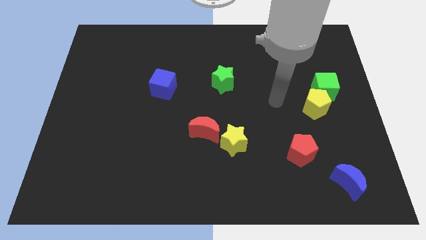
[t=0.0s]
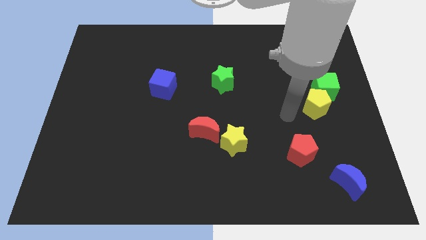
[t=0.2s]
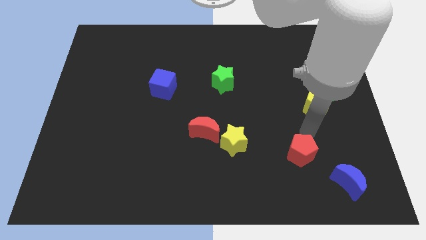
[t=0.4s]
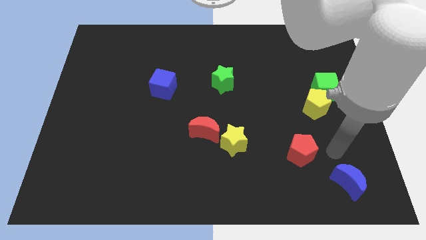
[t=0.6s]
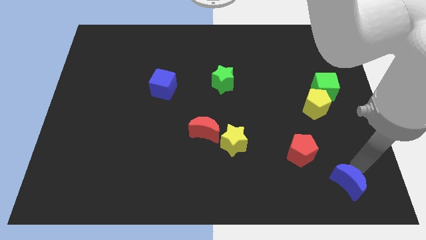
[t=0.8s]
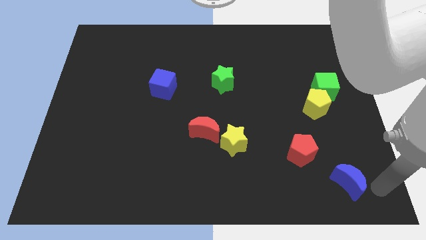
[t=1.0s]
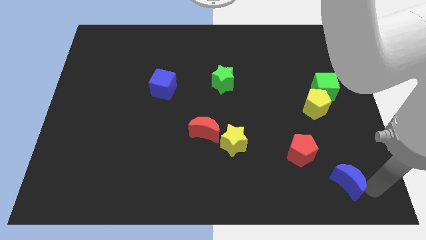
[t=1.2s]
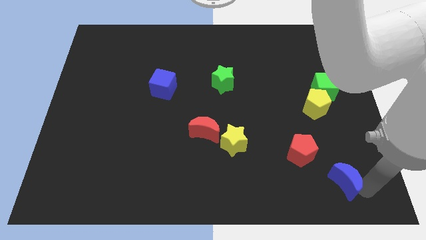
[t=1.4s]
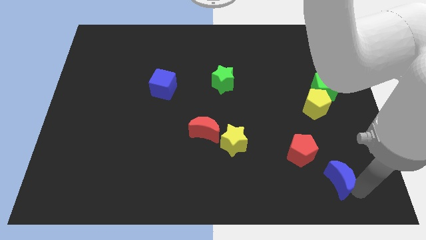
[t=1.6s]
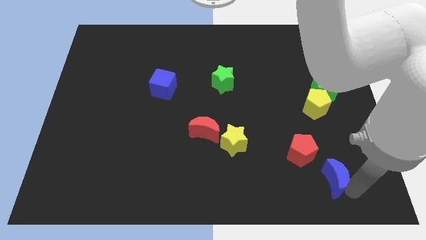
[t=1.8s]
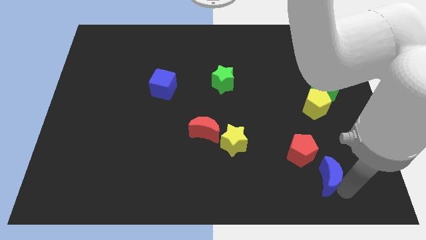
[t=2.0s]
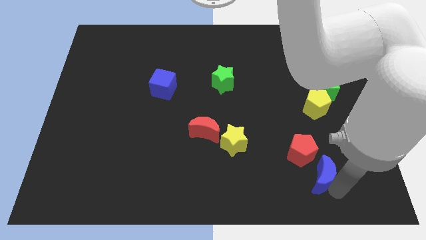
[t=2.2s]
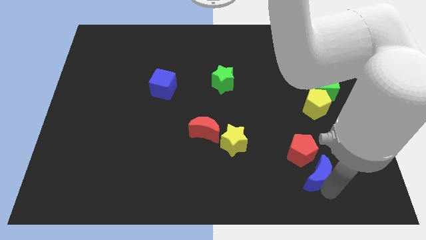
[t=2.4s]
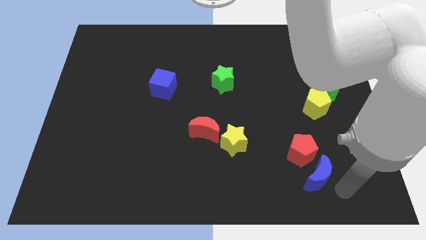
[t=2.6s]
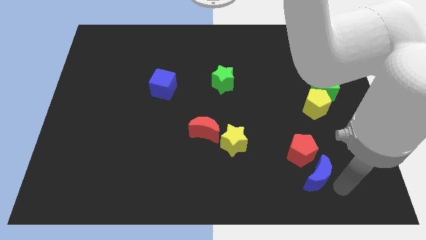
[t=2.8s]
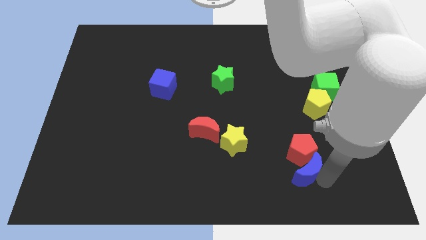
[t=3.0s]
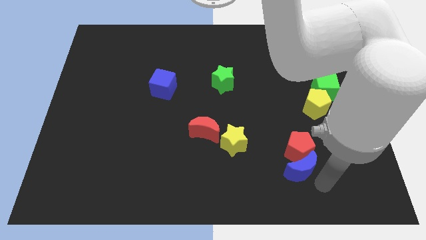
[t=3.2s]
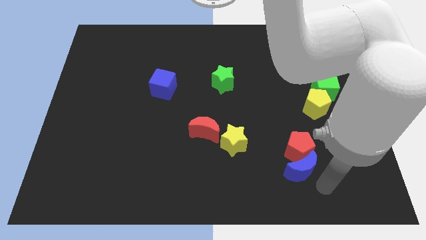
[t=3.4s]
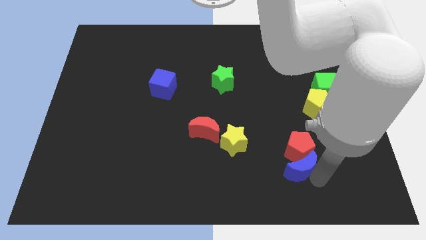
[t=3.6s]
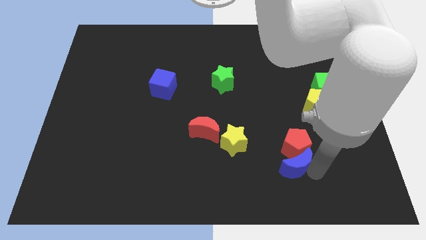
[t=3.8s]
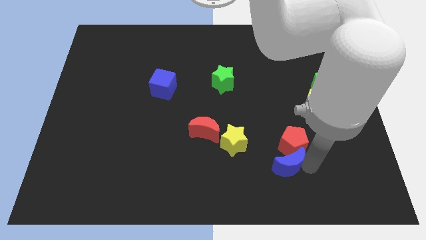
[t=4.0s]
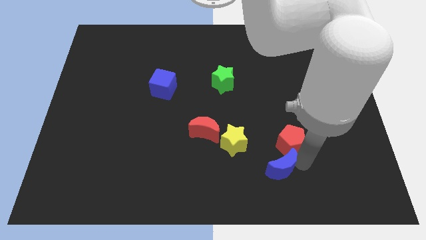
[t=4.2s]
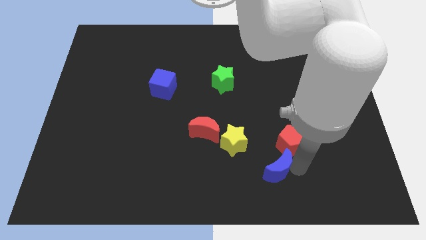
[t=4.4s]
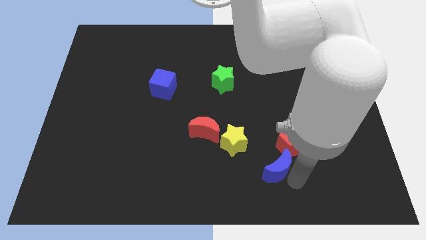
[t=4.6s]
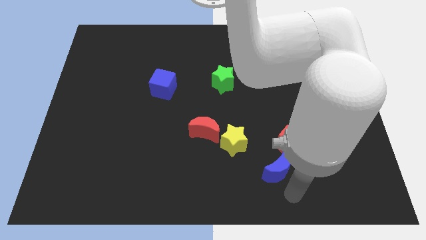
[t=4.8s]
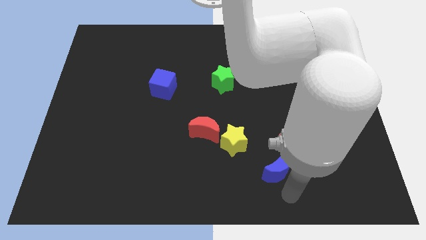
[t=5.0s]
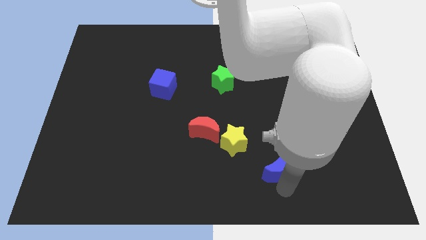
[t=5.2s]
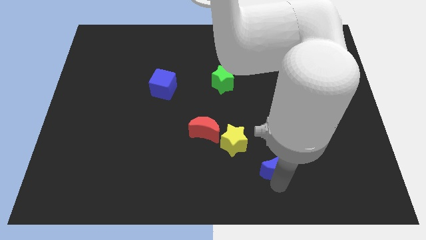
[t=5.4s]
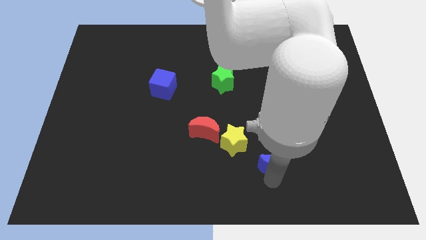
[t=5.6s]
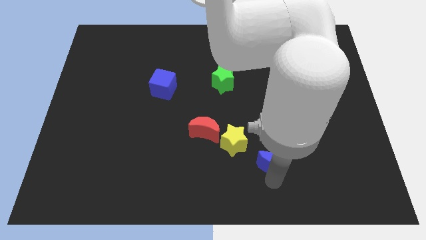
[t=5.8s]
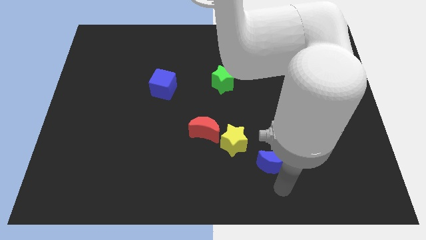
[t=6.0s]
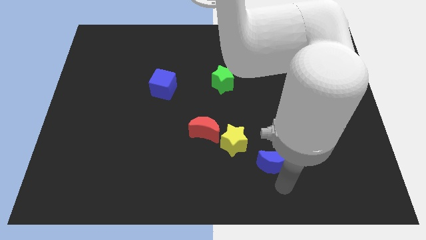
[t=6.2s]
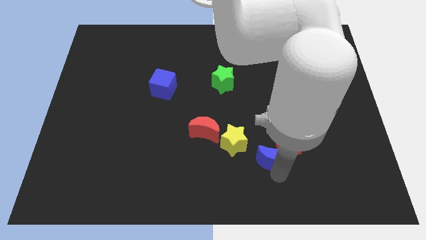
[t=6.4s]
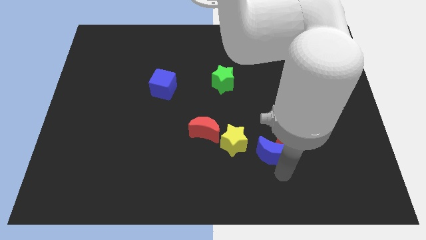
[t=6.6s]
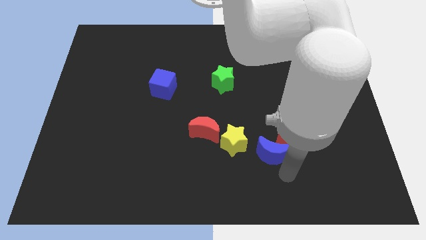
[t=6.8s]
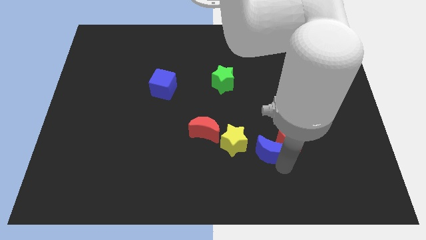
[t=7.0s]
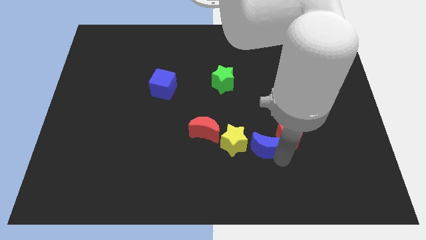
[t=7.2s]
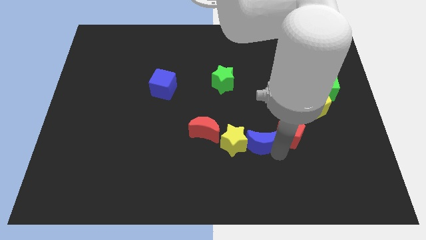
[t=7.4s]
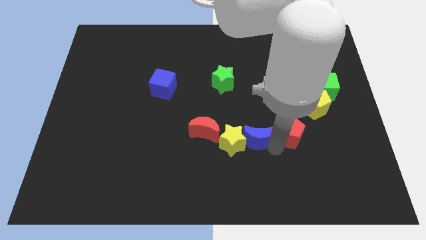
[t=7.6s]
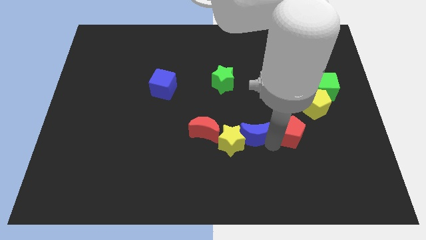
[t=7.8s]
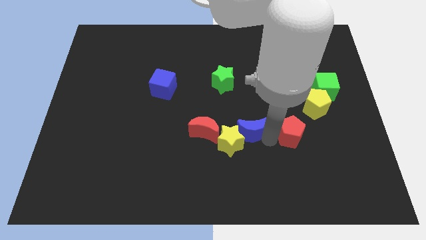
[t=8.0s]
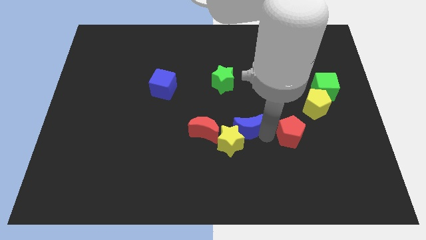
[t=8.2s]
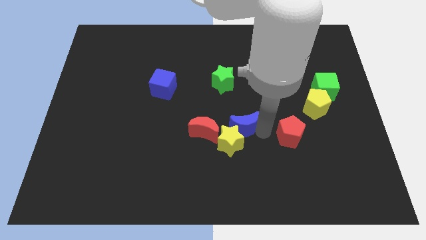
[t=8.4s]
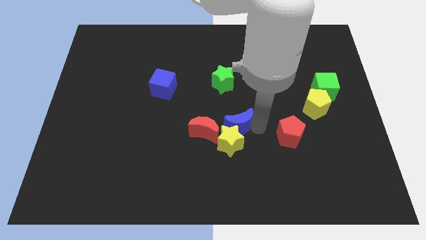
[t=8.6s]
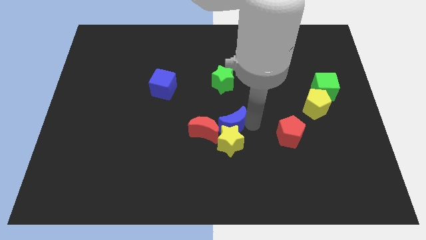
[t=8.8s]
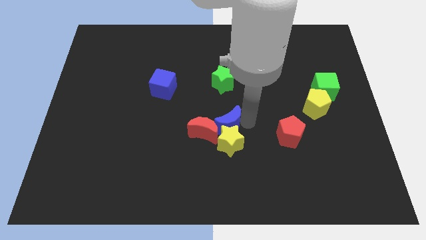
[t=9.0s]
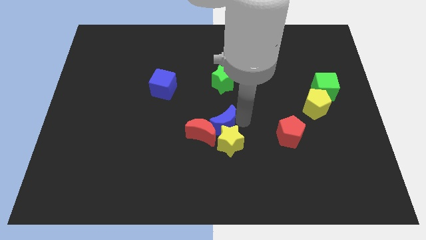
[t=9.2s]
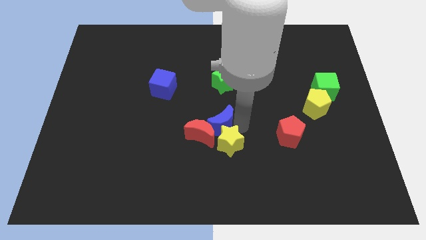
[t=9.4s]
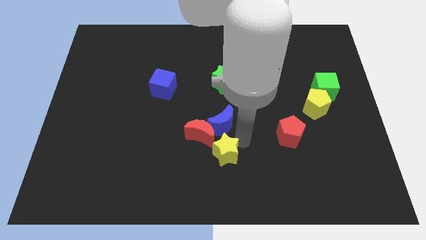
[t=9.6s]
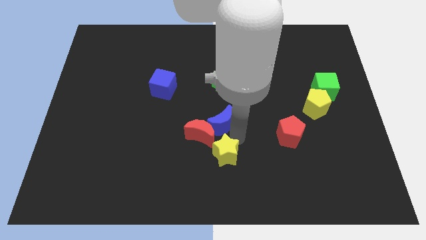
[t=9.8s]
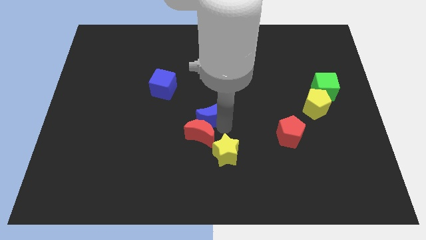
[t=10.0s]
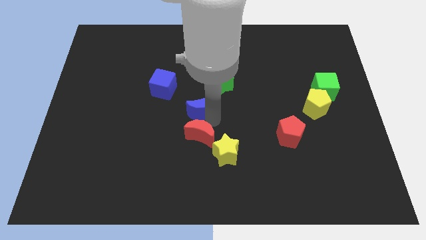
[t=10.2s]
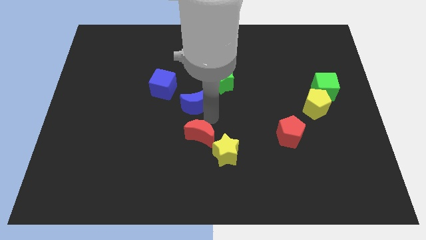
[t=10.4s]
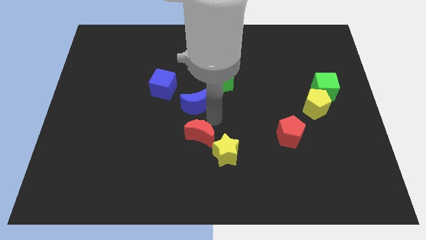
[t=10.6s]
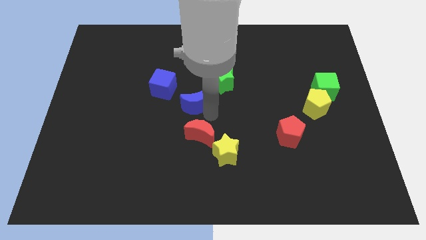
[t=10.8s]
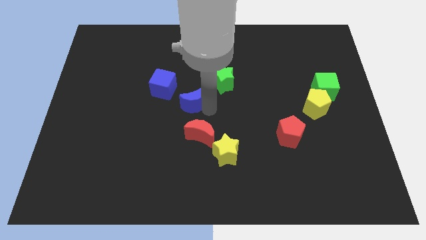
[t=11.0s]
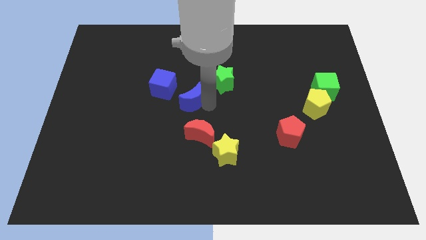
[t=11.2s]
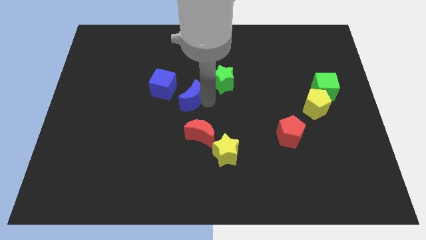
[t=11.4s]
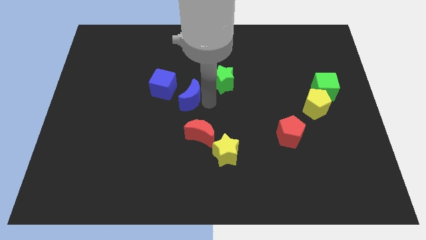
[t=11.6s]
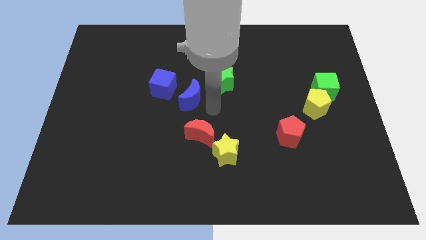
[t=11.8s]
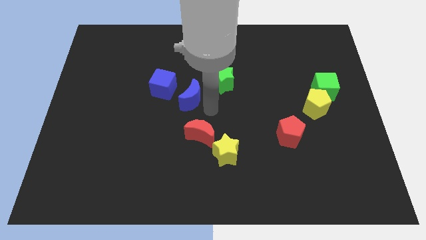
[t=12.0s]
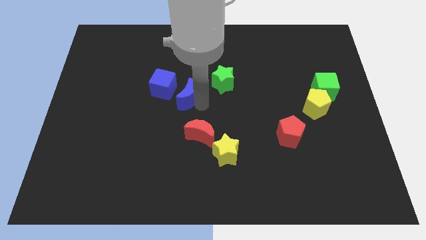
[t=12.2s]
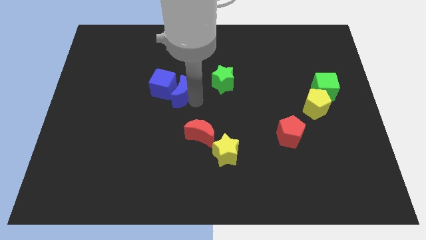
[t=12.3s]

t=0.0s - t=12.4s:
slide the blue moon next to the blue cube

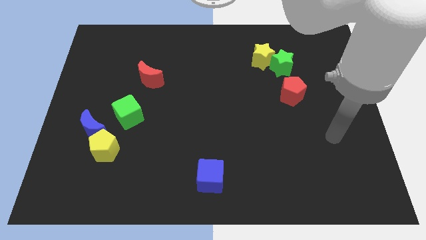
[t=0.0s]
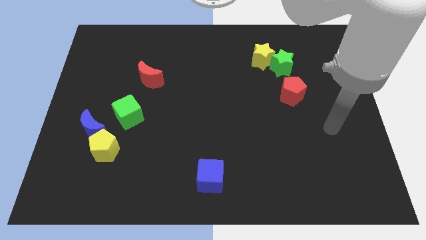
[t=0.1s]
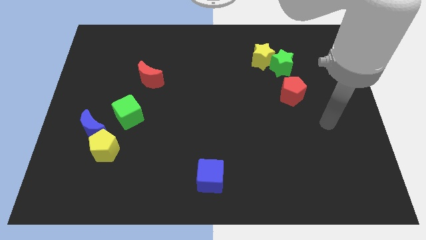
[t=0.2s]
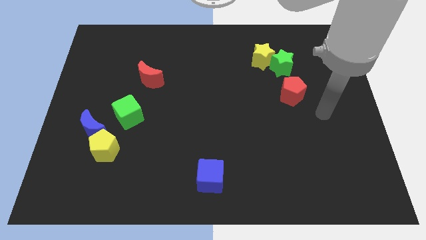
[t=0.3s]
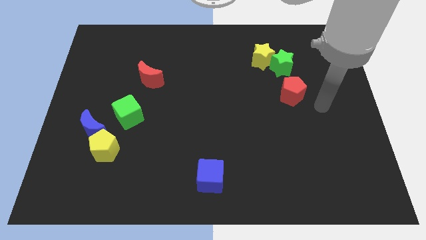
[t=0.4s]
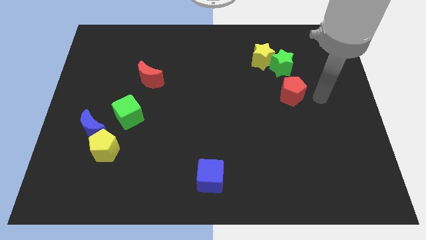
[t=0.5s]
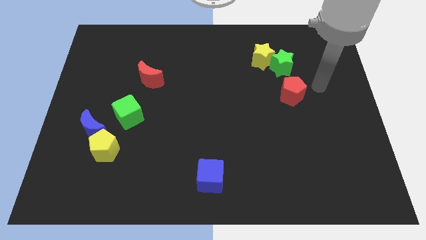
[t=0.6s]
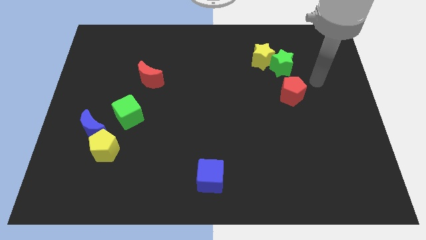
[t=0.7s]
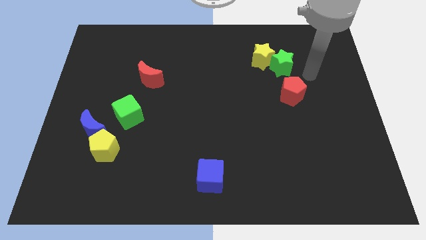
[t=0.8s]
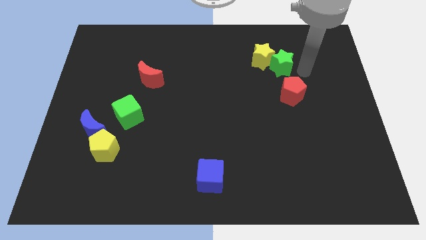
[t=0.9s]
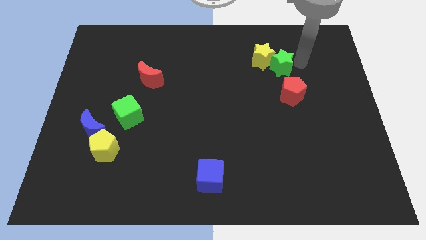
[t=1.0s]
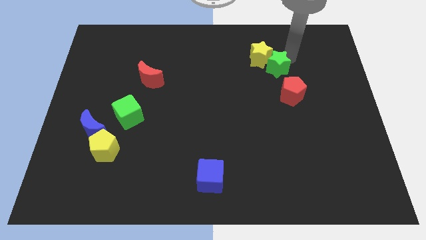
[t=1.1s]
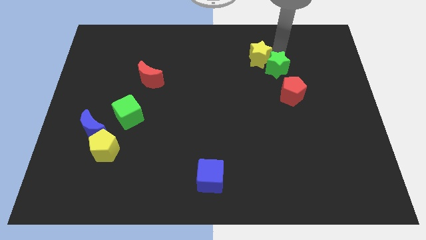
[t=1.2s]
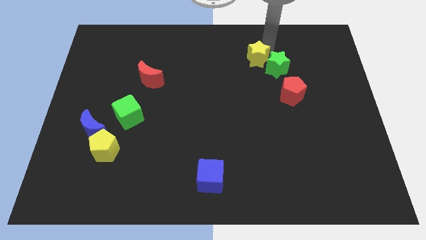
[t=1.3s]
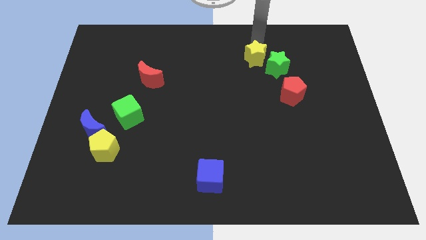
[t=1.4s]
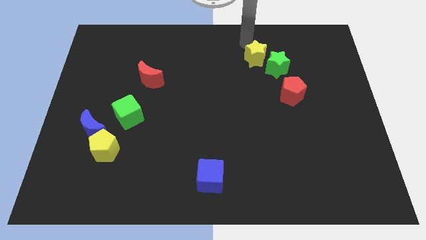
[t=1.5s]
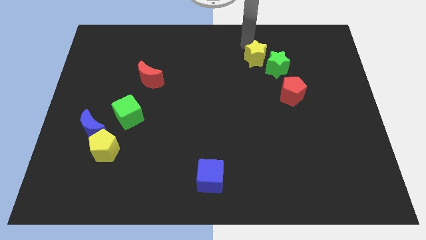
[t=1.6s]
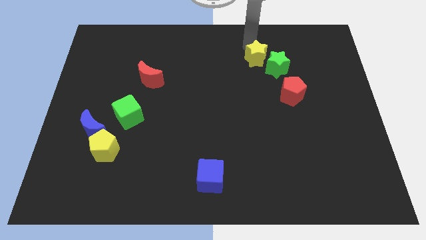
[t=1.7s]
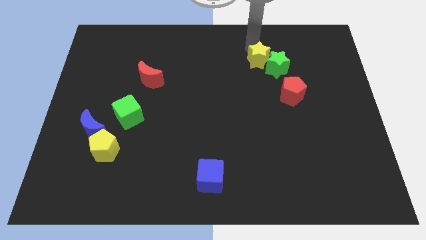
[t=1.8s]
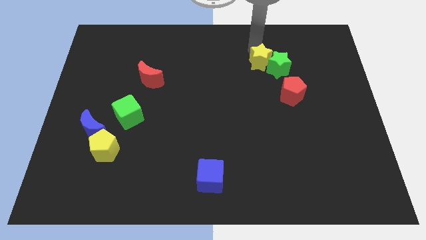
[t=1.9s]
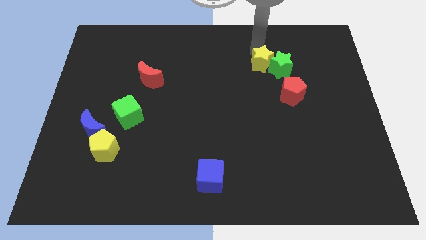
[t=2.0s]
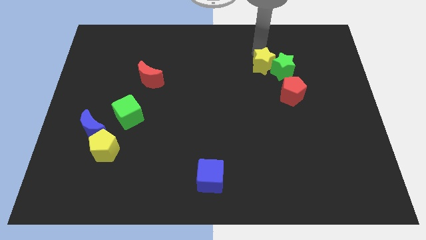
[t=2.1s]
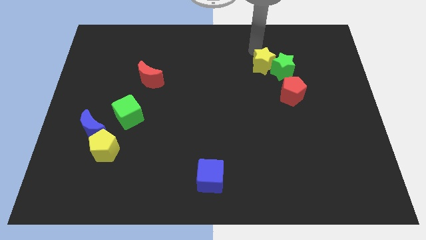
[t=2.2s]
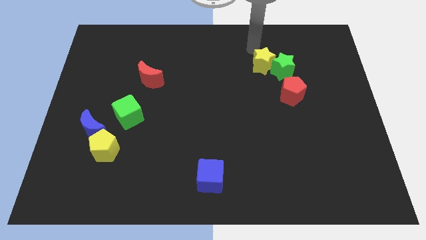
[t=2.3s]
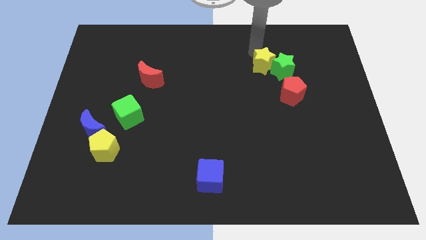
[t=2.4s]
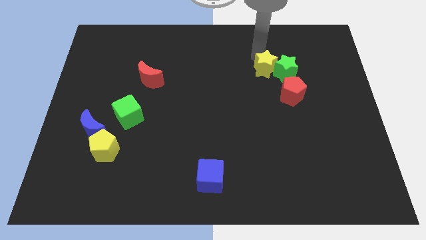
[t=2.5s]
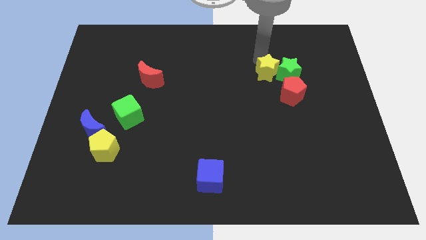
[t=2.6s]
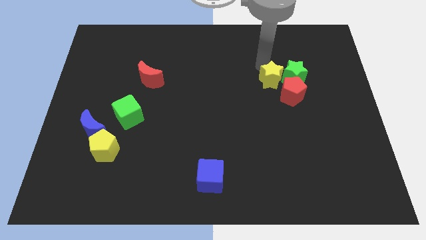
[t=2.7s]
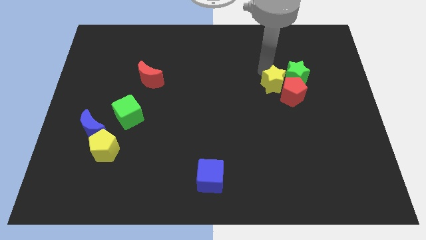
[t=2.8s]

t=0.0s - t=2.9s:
move the yellow star to the red pentagon
